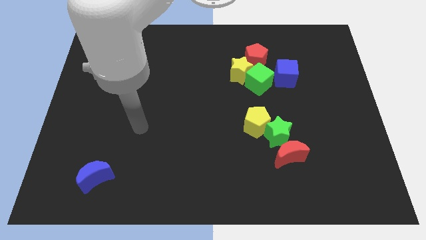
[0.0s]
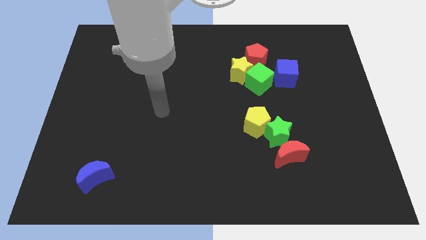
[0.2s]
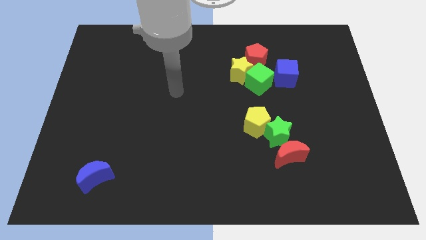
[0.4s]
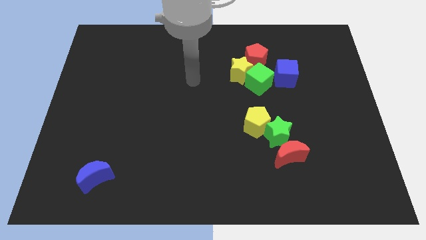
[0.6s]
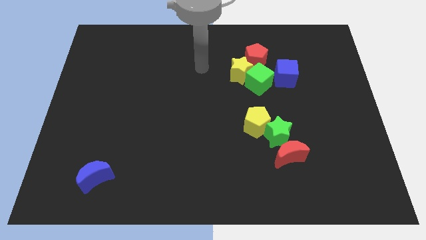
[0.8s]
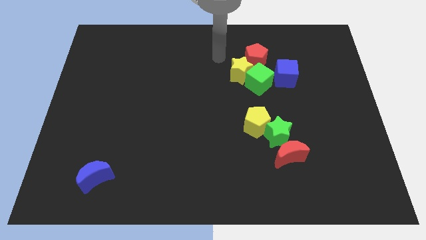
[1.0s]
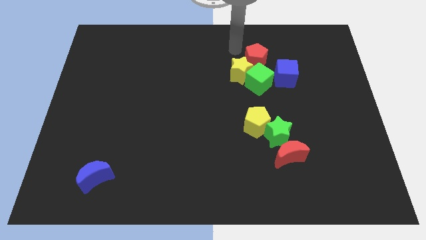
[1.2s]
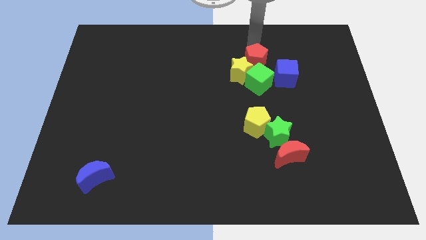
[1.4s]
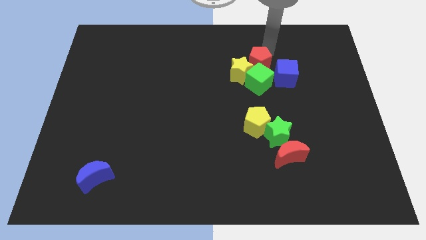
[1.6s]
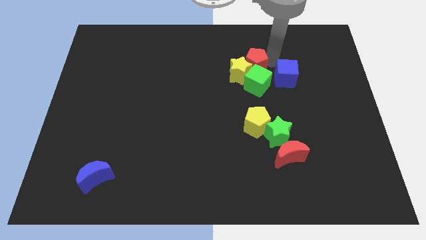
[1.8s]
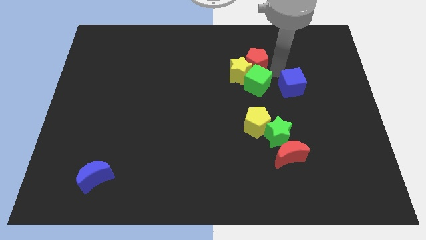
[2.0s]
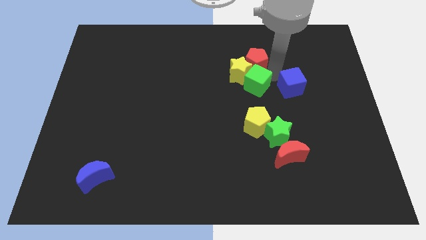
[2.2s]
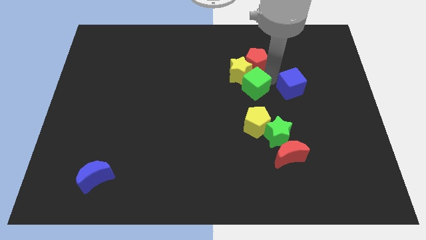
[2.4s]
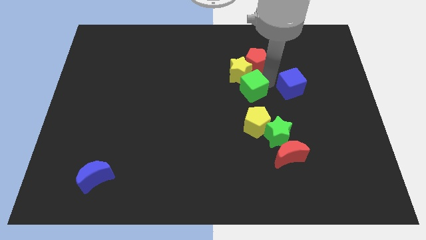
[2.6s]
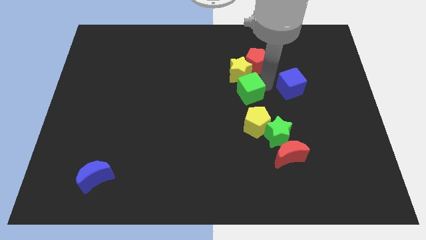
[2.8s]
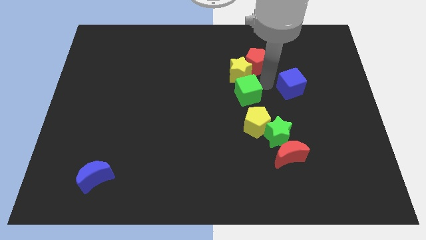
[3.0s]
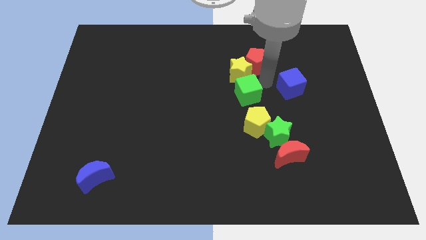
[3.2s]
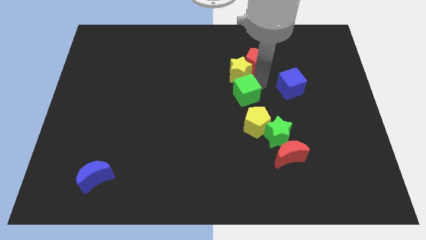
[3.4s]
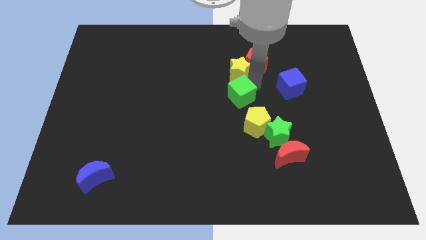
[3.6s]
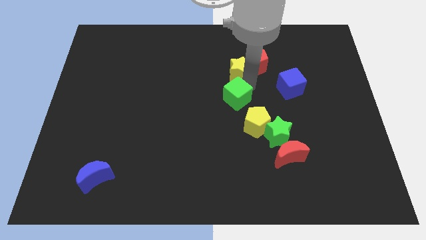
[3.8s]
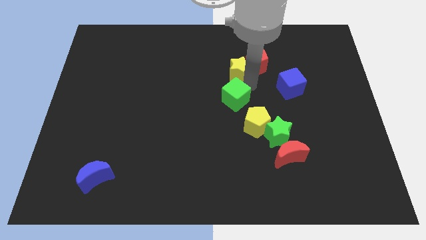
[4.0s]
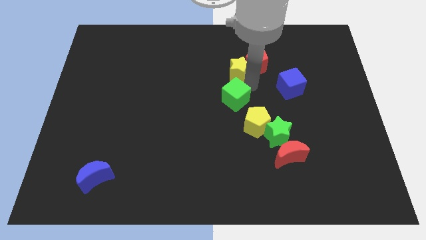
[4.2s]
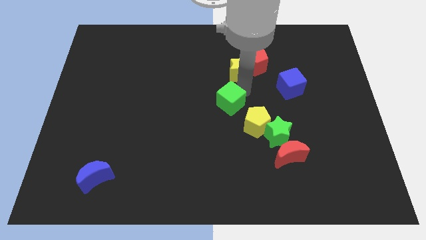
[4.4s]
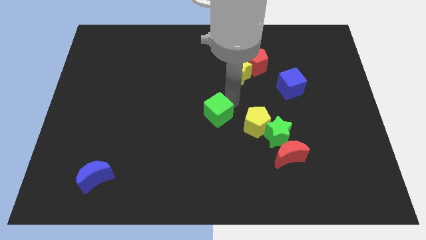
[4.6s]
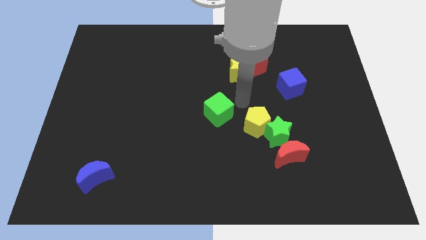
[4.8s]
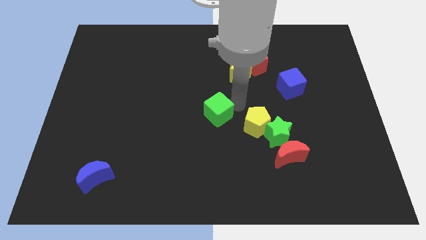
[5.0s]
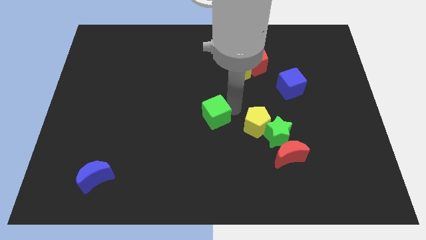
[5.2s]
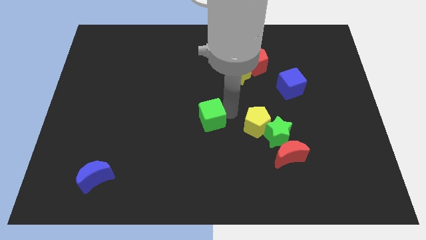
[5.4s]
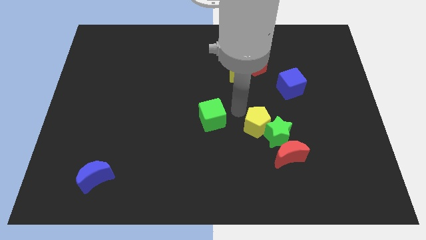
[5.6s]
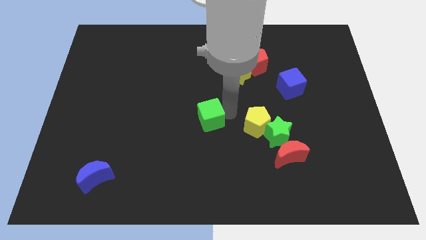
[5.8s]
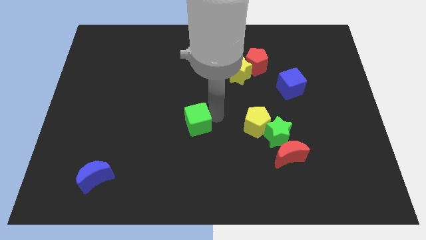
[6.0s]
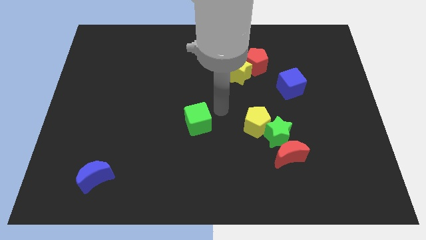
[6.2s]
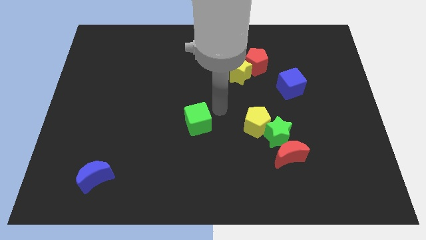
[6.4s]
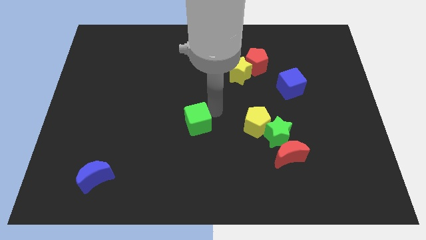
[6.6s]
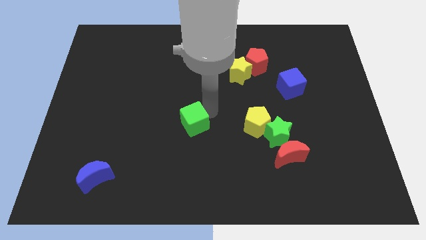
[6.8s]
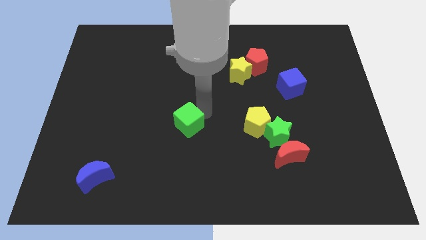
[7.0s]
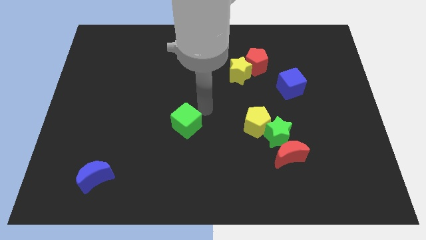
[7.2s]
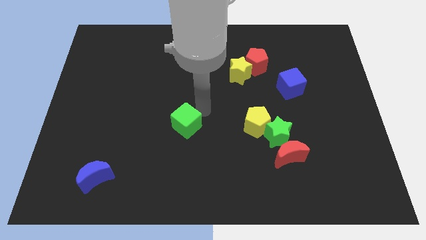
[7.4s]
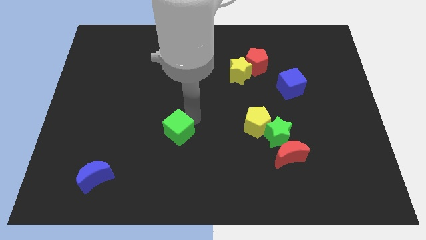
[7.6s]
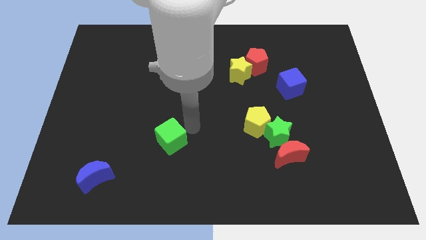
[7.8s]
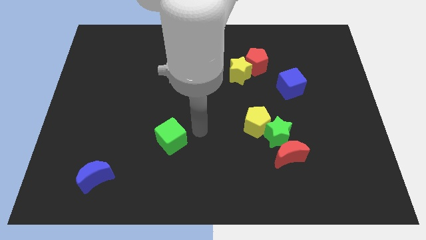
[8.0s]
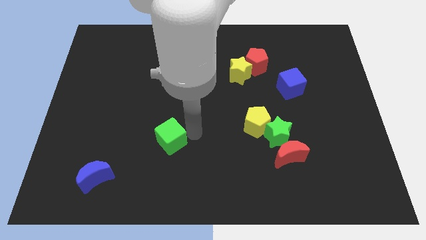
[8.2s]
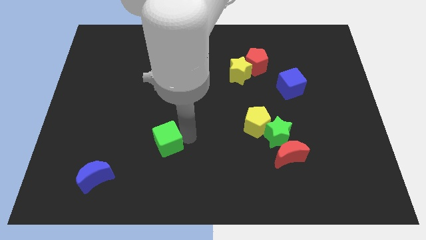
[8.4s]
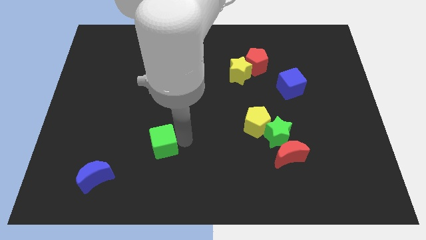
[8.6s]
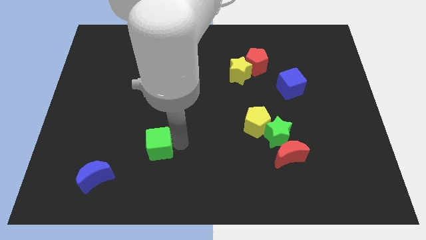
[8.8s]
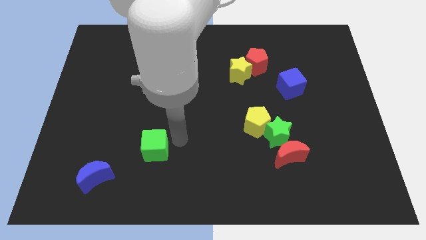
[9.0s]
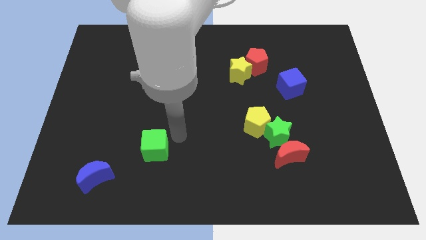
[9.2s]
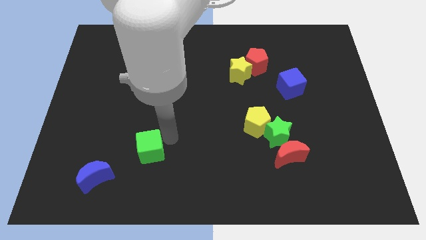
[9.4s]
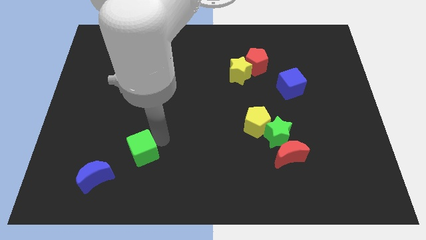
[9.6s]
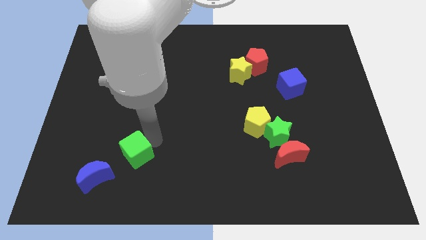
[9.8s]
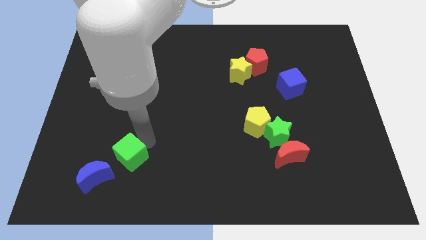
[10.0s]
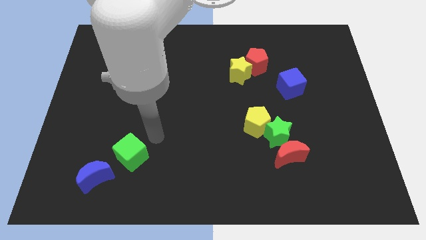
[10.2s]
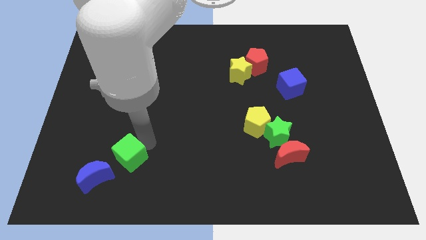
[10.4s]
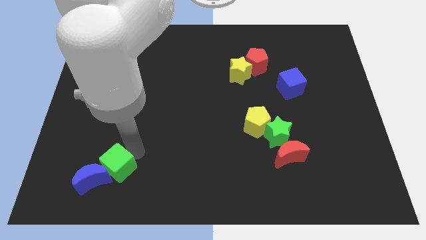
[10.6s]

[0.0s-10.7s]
move the green cube next to the blue moon

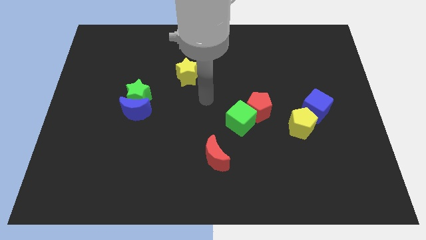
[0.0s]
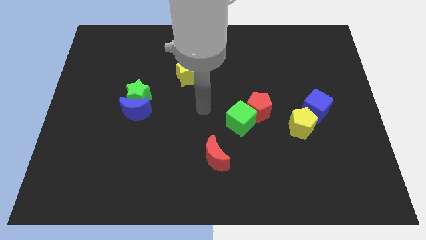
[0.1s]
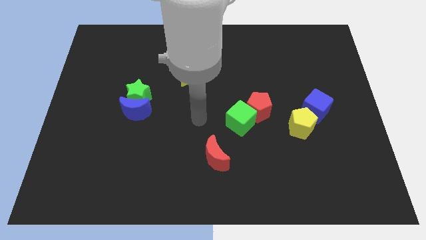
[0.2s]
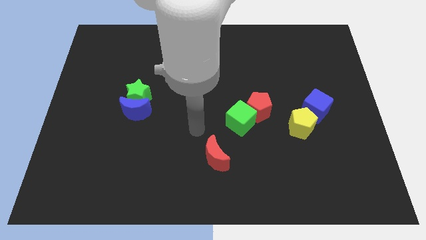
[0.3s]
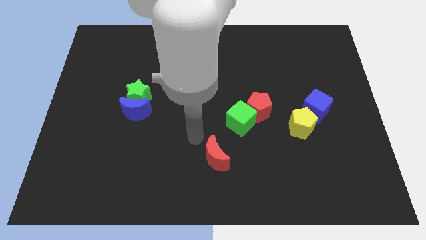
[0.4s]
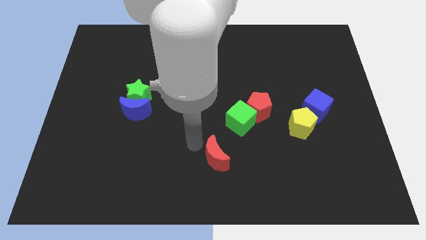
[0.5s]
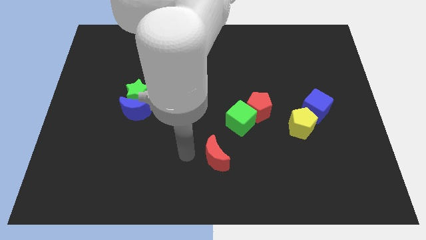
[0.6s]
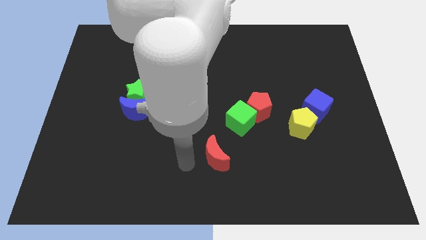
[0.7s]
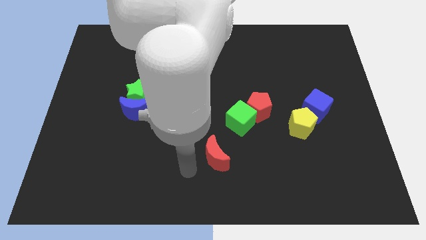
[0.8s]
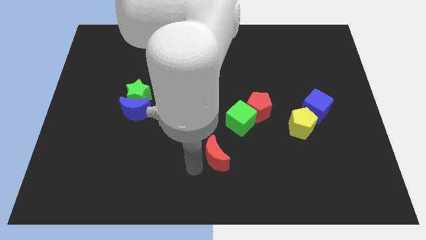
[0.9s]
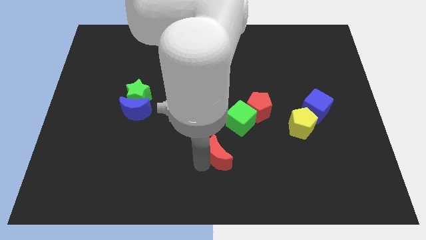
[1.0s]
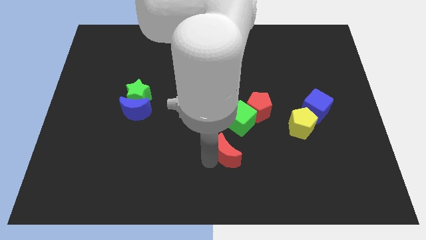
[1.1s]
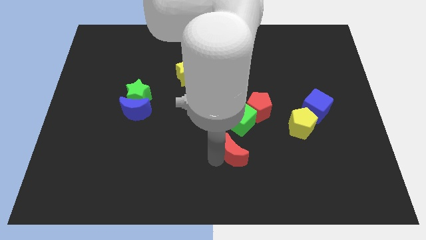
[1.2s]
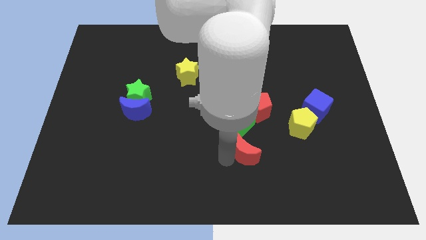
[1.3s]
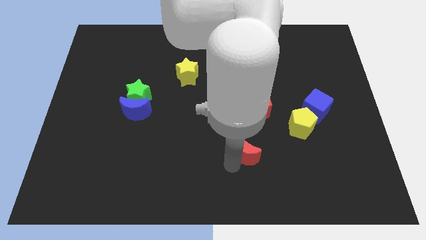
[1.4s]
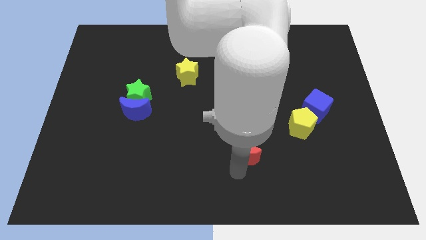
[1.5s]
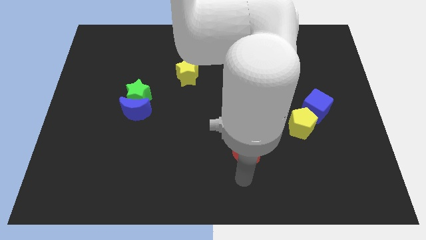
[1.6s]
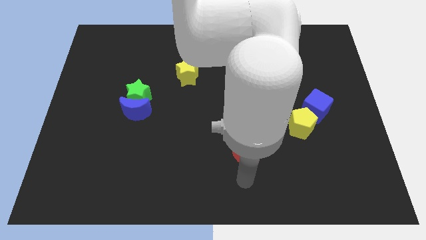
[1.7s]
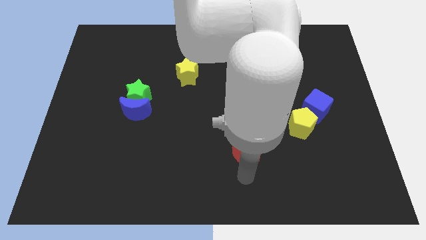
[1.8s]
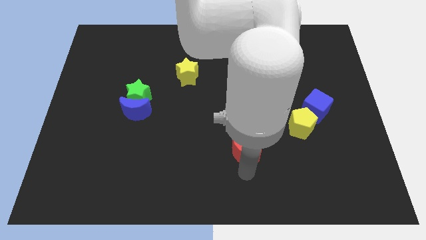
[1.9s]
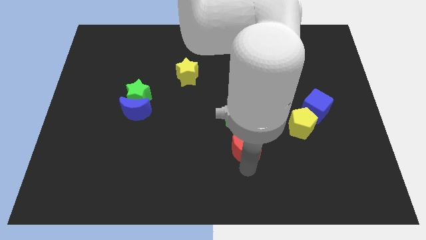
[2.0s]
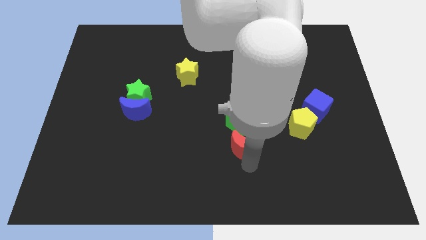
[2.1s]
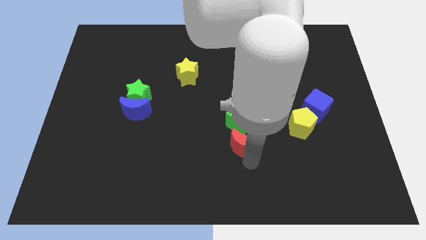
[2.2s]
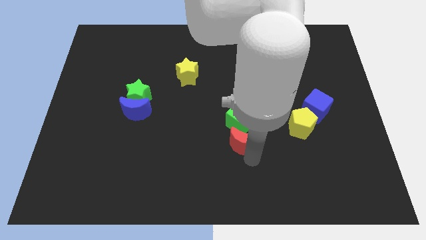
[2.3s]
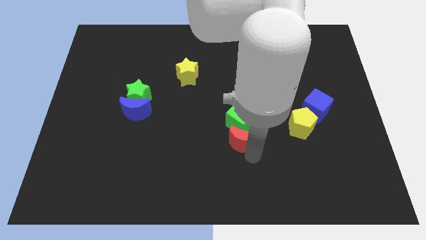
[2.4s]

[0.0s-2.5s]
move the red moon towards the green cube
